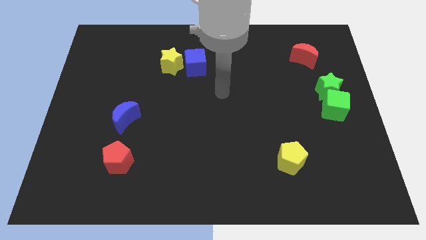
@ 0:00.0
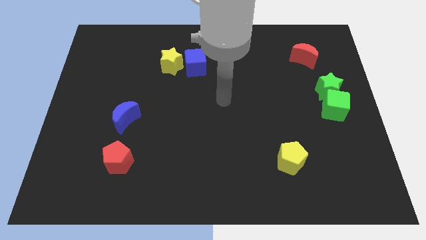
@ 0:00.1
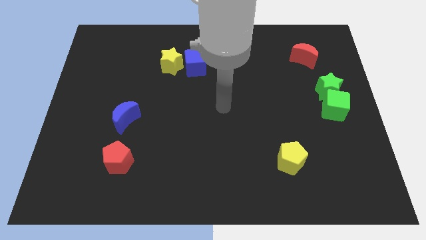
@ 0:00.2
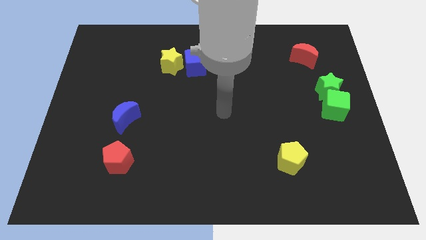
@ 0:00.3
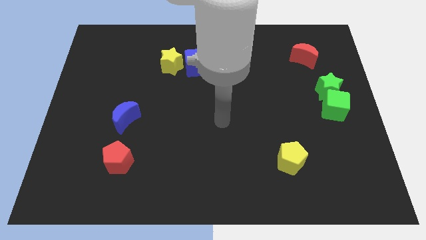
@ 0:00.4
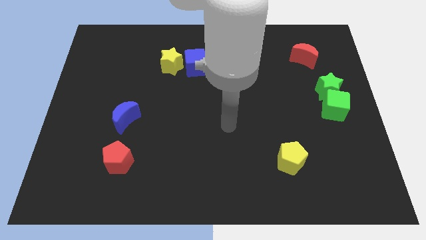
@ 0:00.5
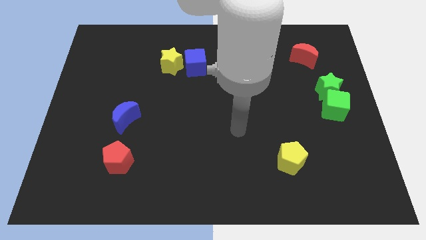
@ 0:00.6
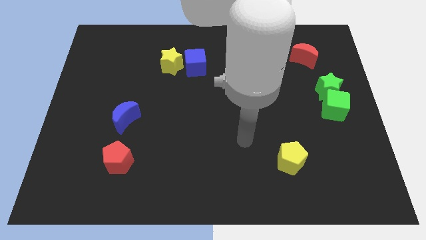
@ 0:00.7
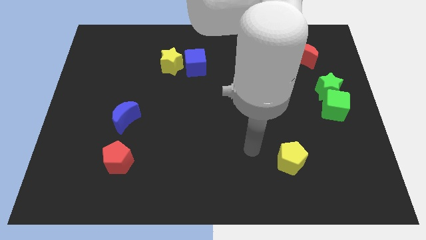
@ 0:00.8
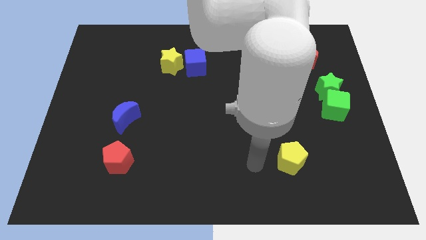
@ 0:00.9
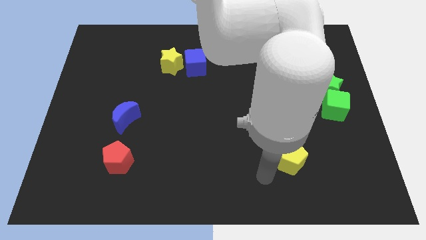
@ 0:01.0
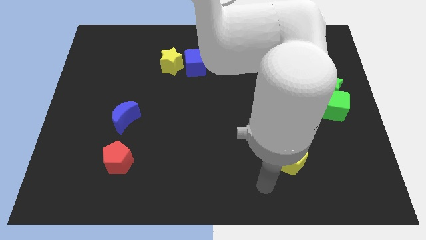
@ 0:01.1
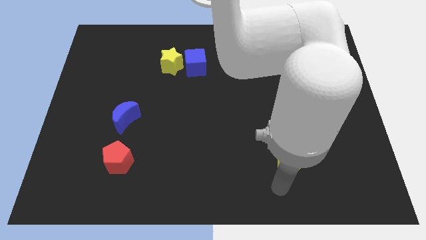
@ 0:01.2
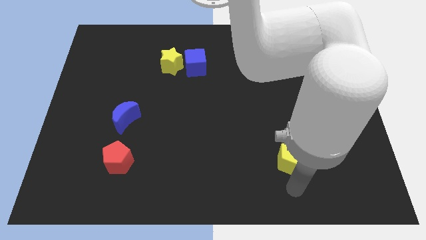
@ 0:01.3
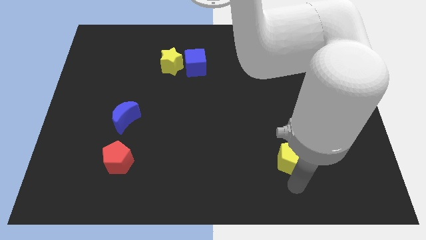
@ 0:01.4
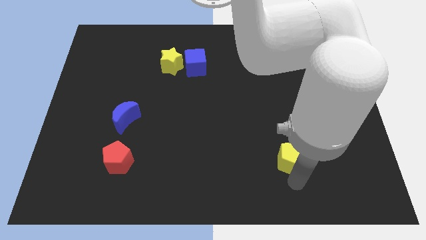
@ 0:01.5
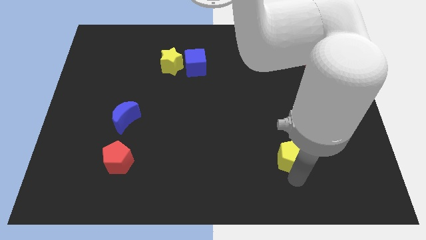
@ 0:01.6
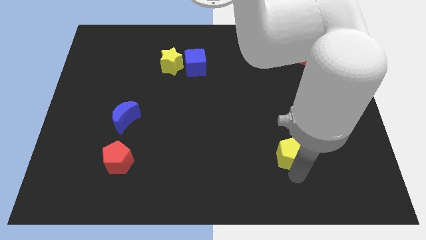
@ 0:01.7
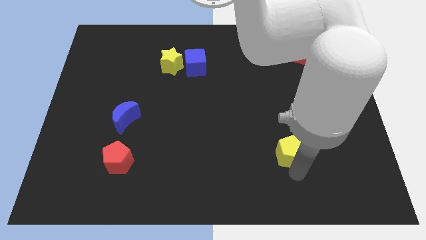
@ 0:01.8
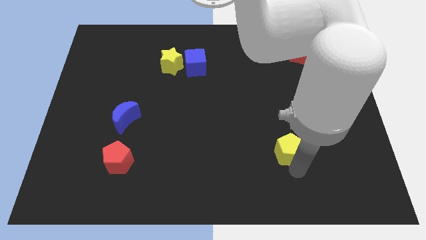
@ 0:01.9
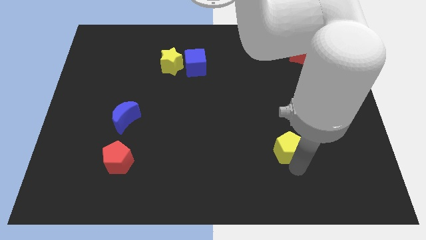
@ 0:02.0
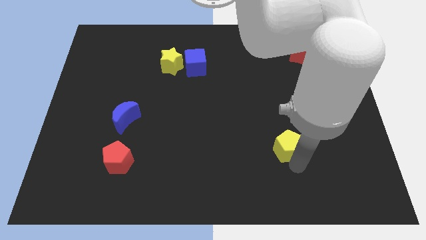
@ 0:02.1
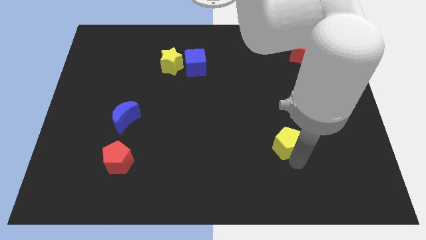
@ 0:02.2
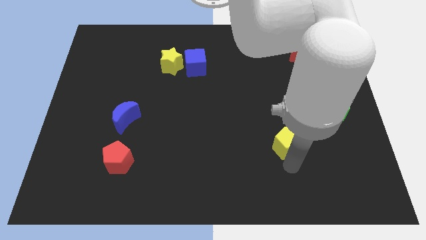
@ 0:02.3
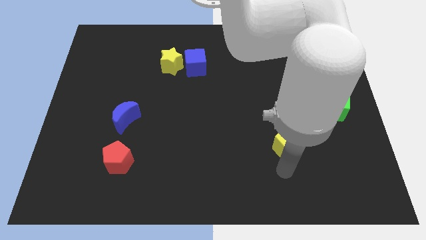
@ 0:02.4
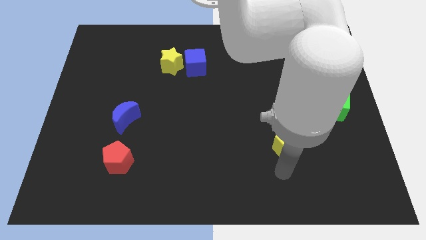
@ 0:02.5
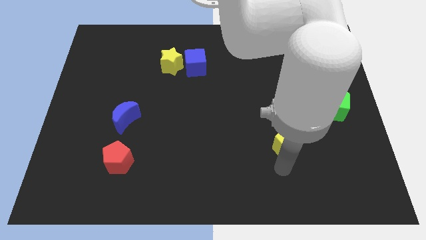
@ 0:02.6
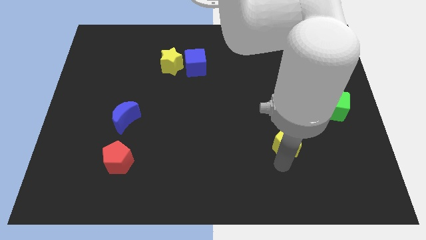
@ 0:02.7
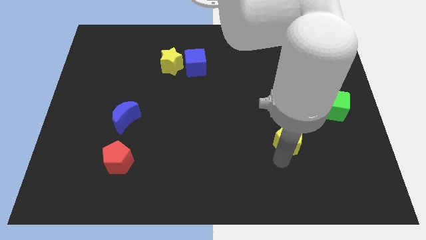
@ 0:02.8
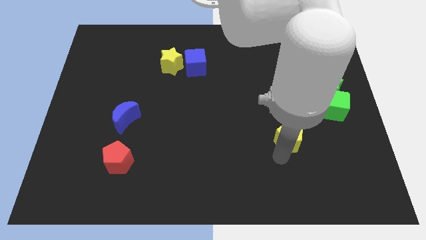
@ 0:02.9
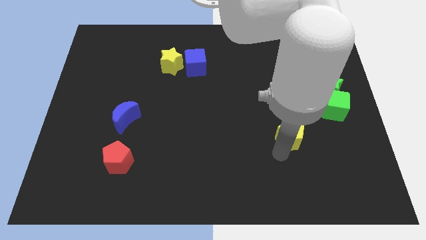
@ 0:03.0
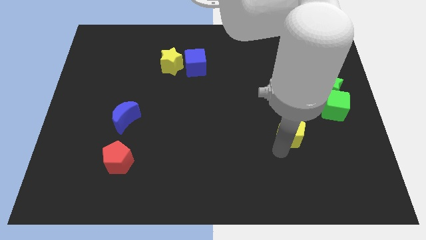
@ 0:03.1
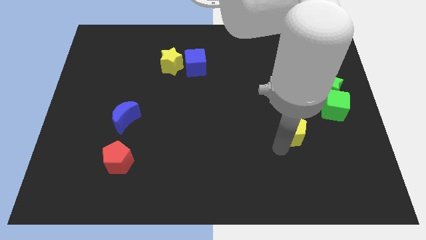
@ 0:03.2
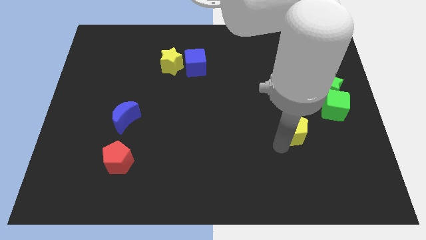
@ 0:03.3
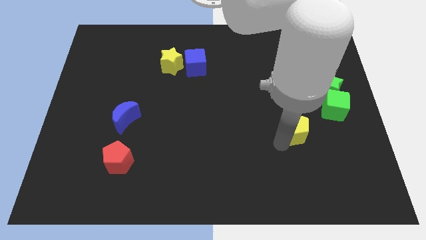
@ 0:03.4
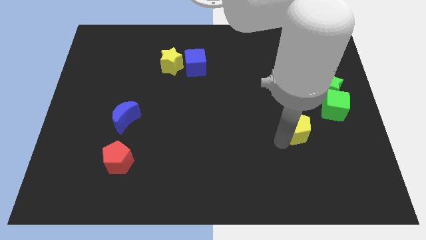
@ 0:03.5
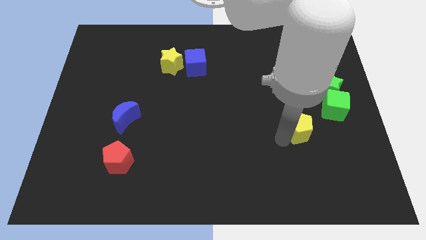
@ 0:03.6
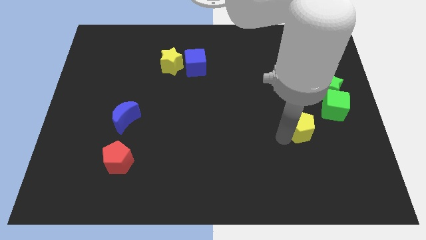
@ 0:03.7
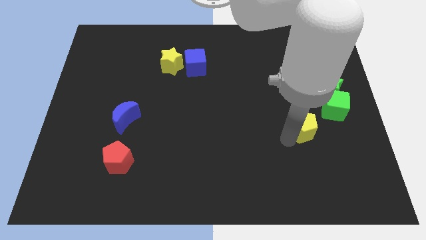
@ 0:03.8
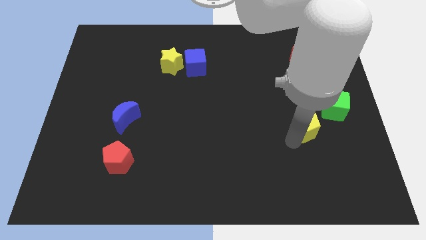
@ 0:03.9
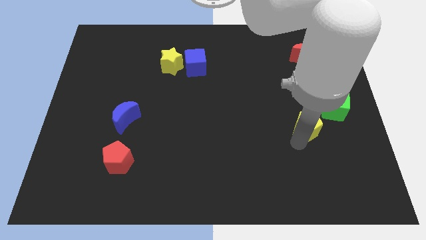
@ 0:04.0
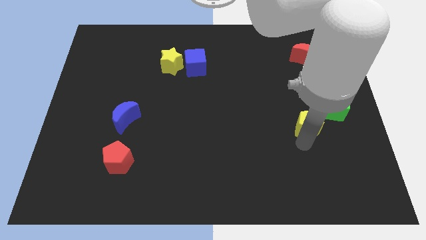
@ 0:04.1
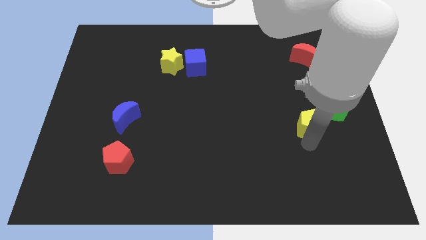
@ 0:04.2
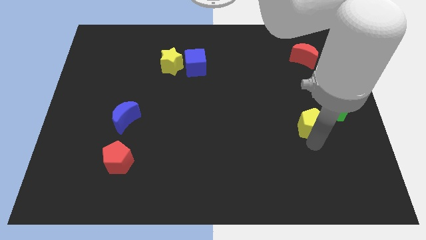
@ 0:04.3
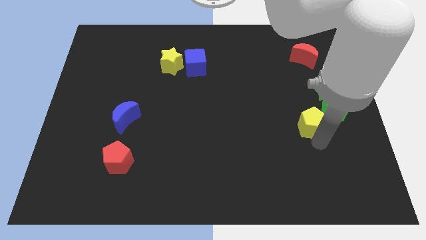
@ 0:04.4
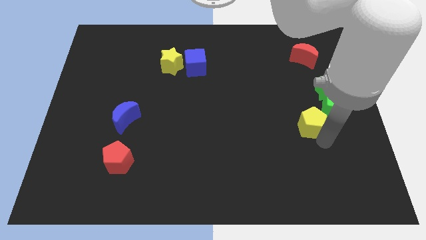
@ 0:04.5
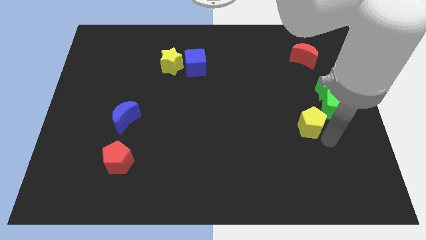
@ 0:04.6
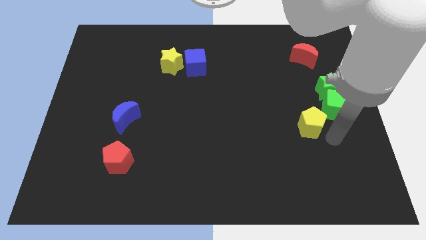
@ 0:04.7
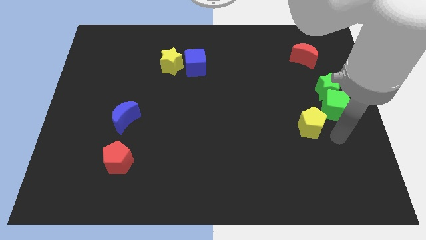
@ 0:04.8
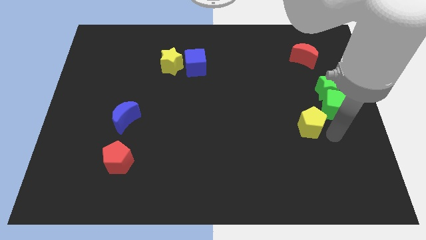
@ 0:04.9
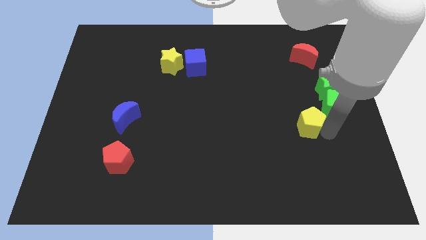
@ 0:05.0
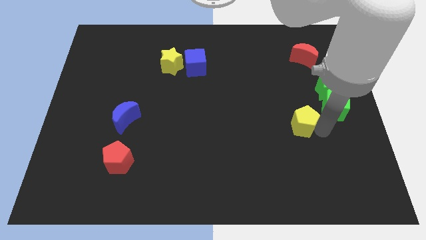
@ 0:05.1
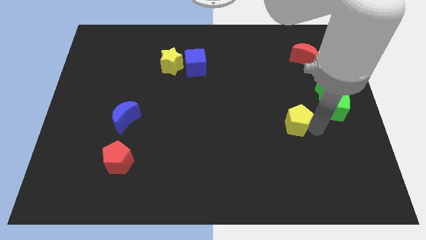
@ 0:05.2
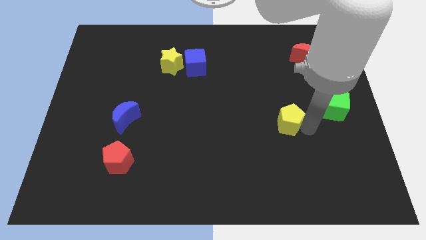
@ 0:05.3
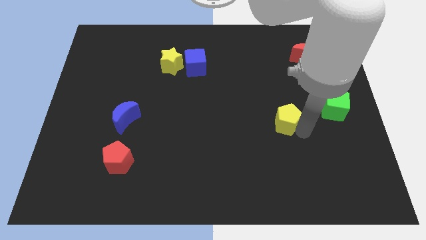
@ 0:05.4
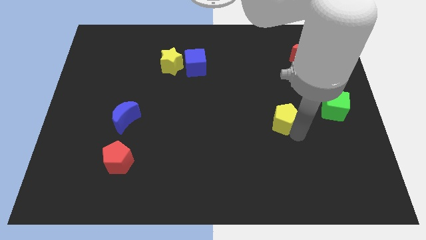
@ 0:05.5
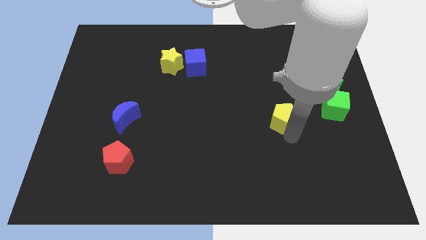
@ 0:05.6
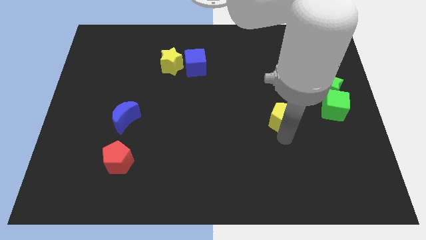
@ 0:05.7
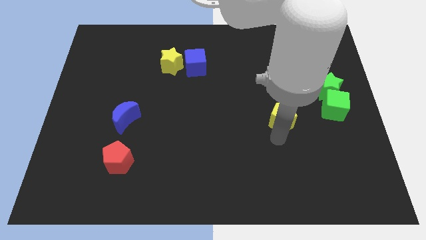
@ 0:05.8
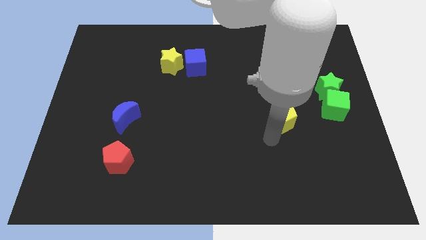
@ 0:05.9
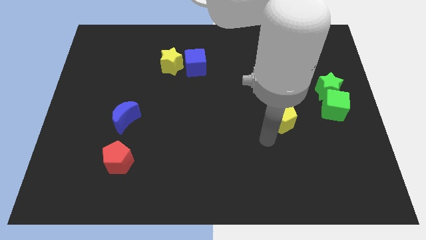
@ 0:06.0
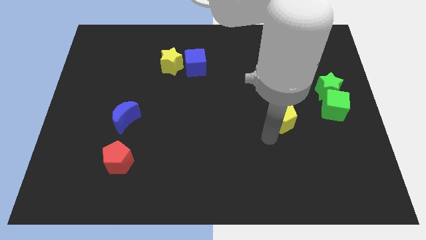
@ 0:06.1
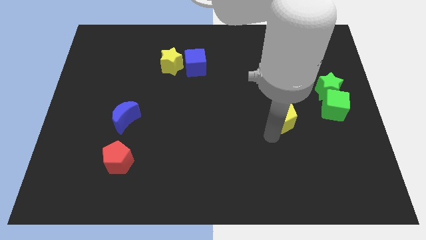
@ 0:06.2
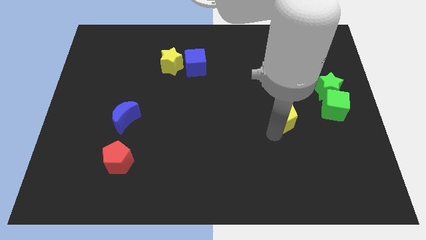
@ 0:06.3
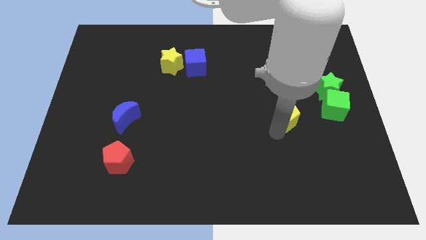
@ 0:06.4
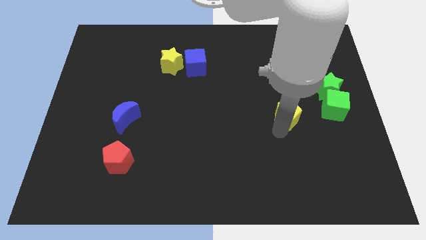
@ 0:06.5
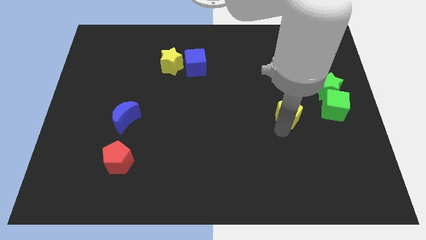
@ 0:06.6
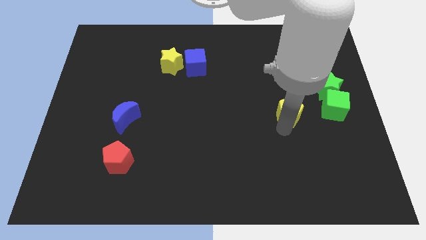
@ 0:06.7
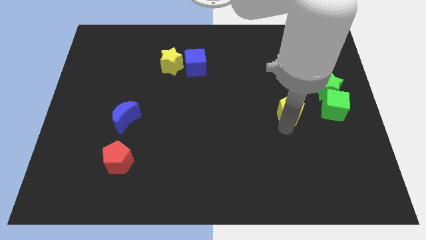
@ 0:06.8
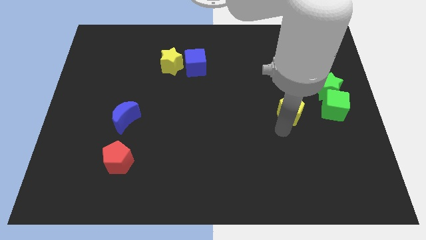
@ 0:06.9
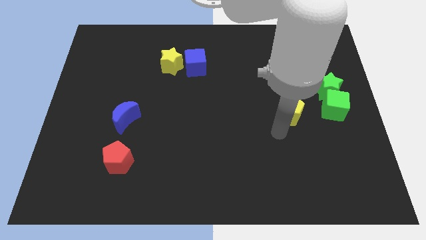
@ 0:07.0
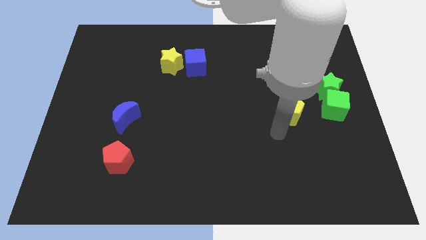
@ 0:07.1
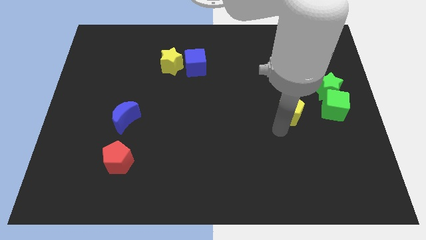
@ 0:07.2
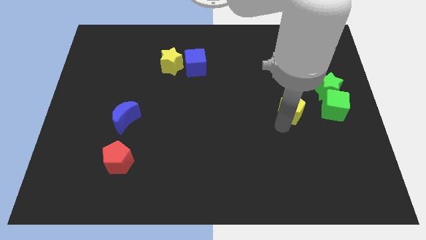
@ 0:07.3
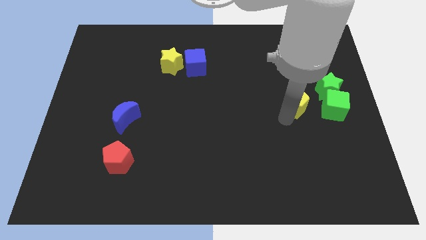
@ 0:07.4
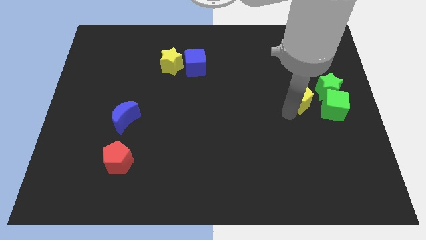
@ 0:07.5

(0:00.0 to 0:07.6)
move the yellow pentagon to the top left side of the green cube
